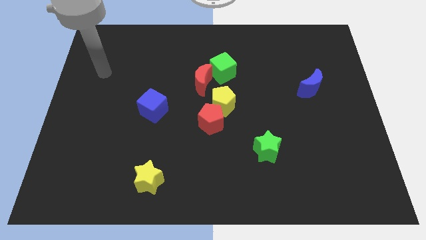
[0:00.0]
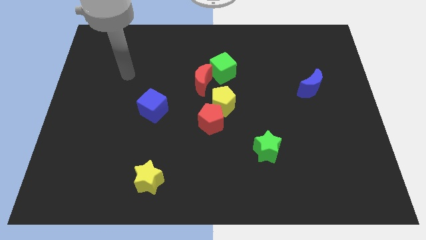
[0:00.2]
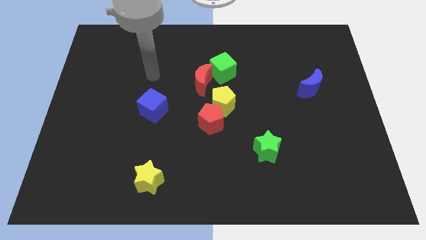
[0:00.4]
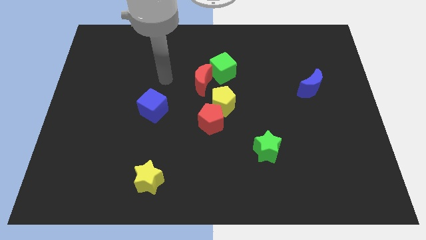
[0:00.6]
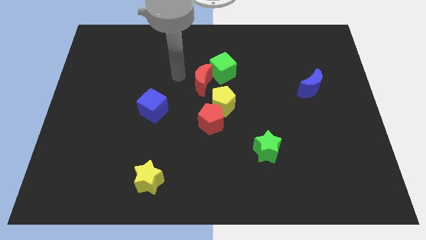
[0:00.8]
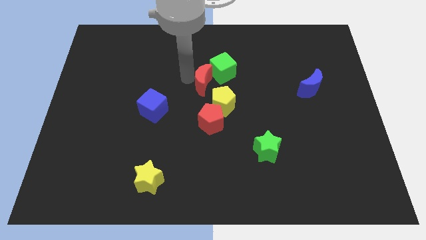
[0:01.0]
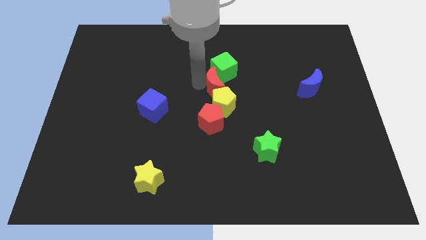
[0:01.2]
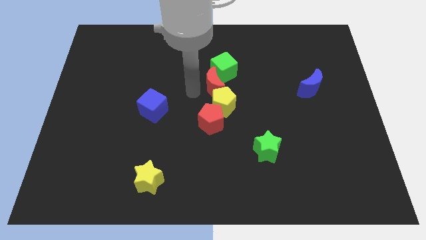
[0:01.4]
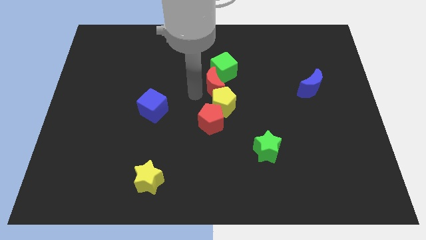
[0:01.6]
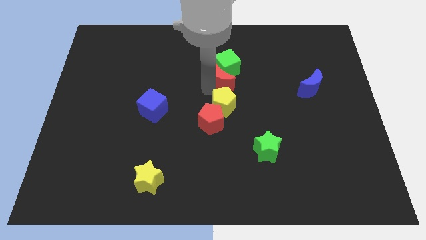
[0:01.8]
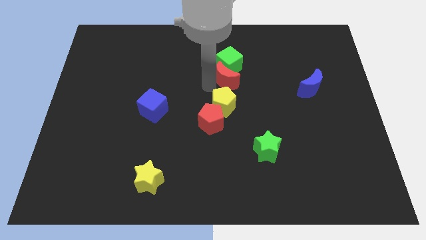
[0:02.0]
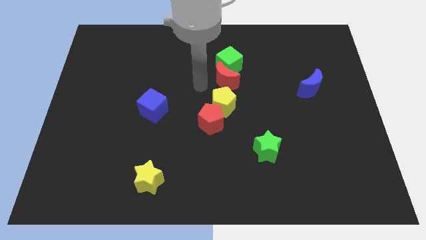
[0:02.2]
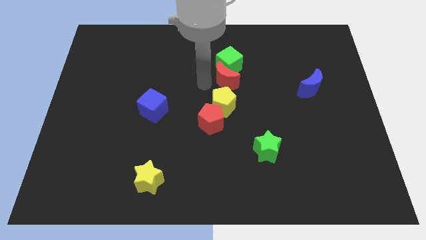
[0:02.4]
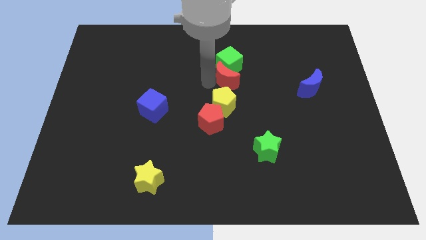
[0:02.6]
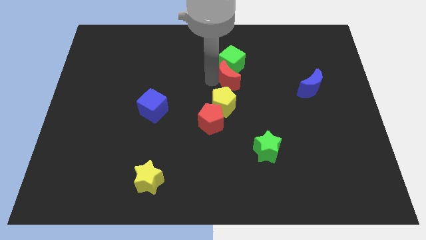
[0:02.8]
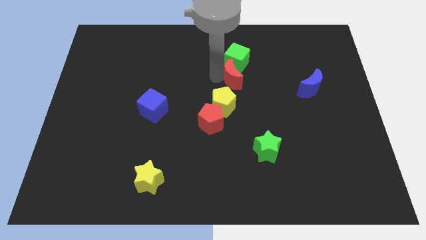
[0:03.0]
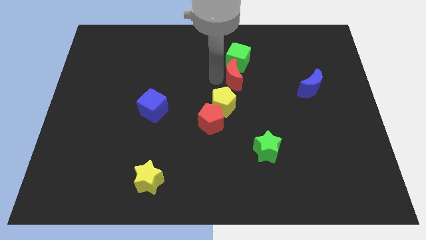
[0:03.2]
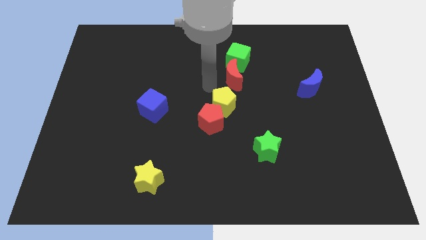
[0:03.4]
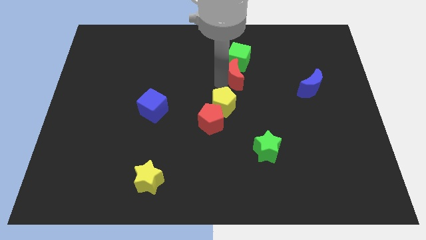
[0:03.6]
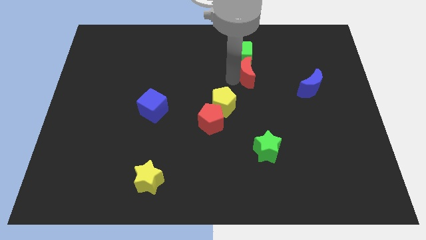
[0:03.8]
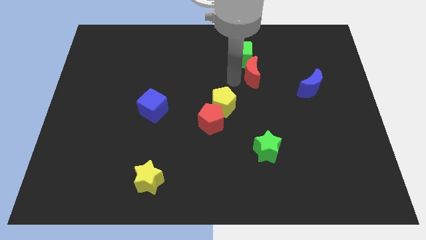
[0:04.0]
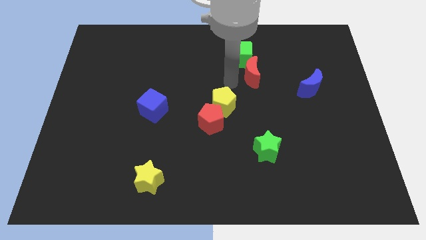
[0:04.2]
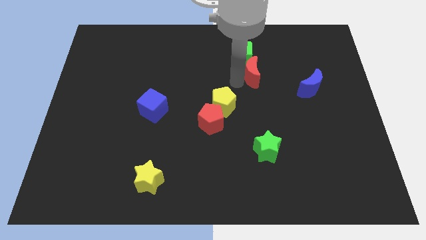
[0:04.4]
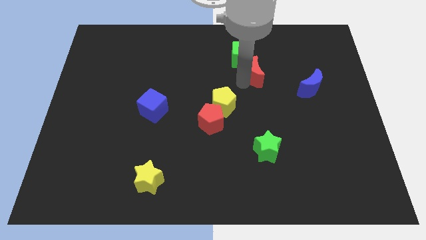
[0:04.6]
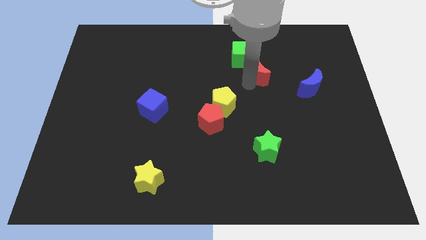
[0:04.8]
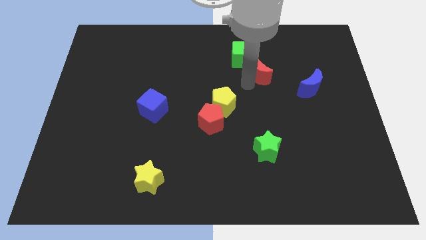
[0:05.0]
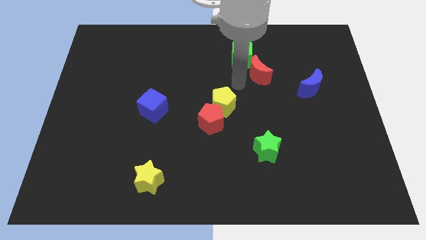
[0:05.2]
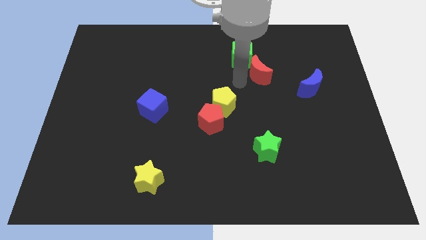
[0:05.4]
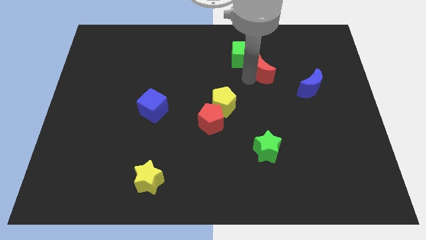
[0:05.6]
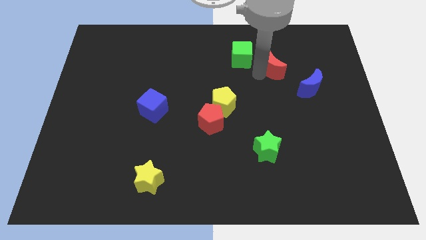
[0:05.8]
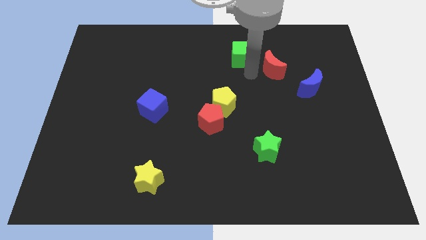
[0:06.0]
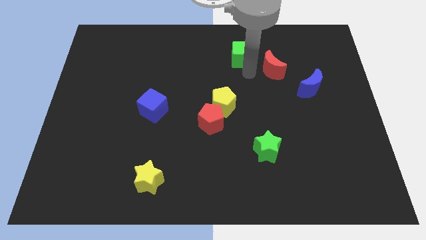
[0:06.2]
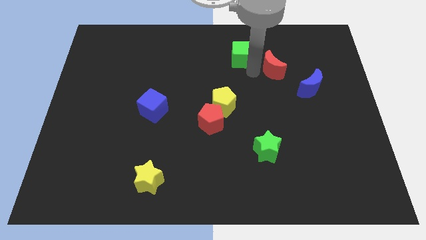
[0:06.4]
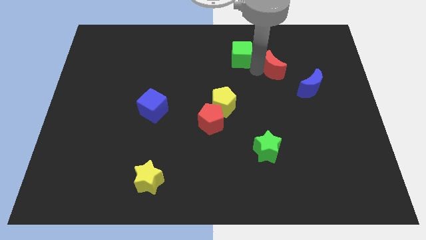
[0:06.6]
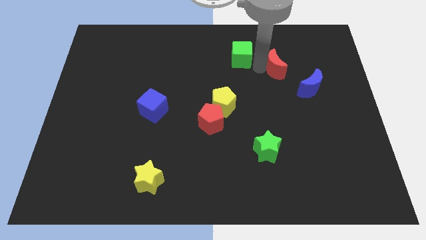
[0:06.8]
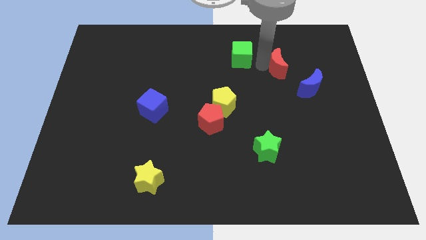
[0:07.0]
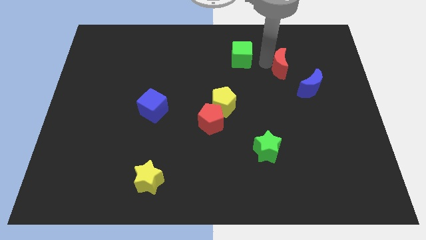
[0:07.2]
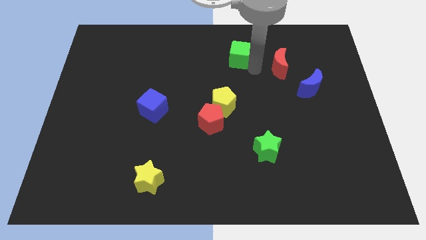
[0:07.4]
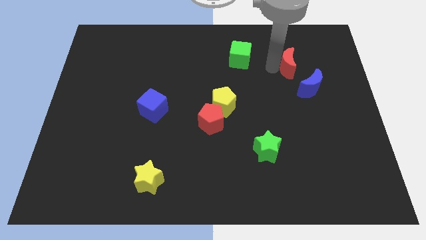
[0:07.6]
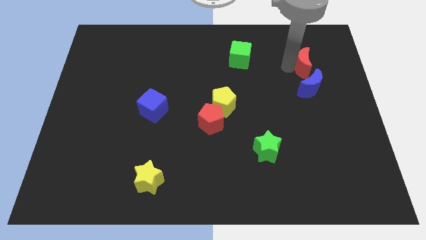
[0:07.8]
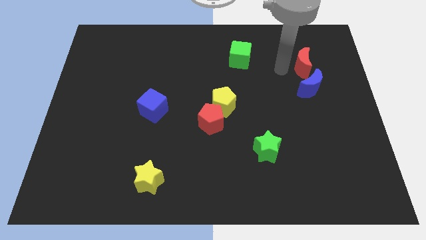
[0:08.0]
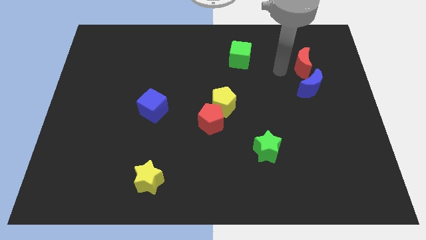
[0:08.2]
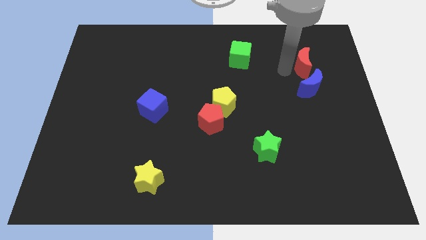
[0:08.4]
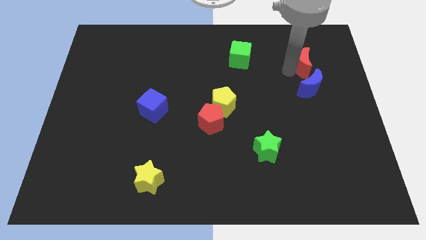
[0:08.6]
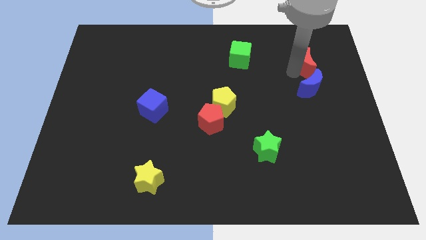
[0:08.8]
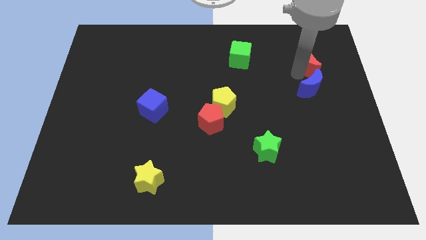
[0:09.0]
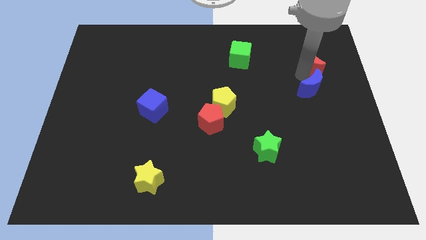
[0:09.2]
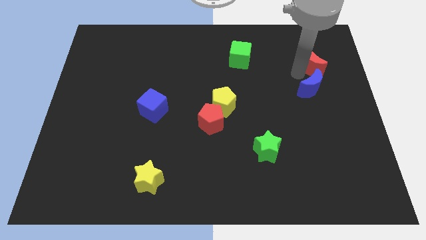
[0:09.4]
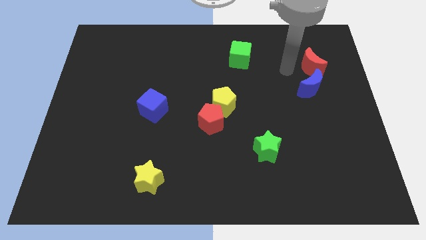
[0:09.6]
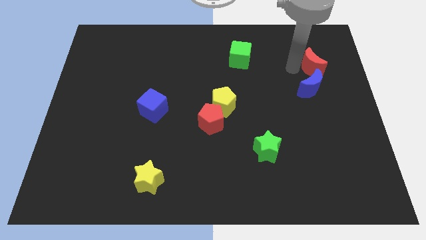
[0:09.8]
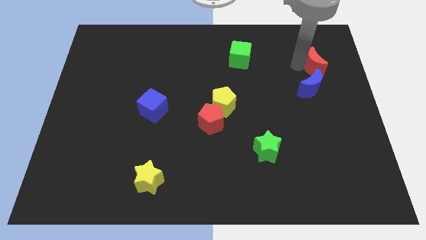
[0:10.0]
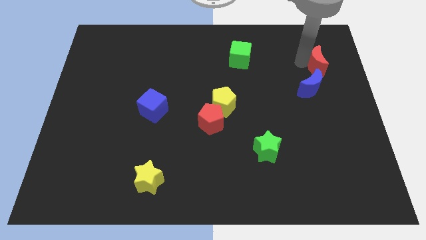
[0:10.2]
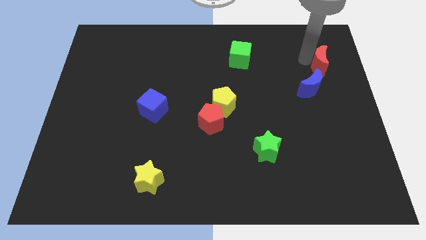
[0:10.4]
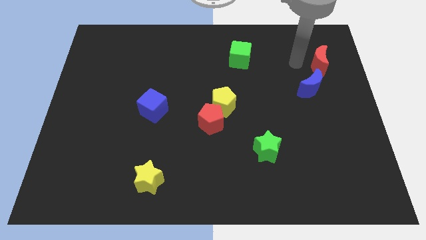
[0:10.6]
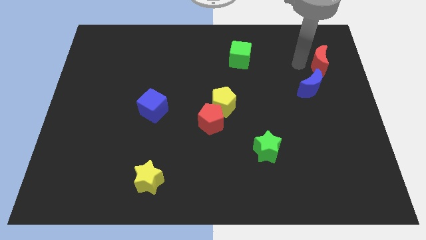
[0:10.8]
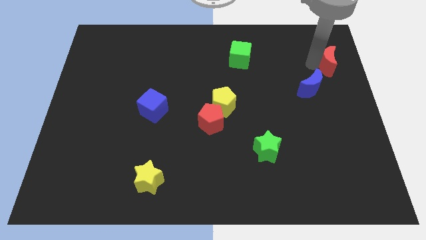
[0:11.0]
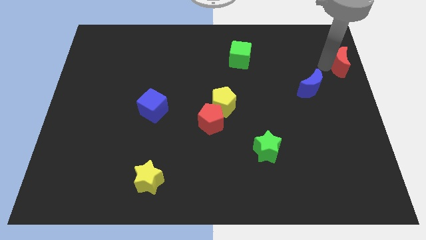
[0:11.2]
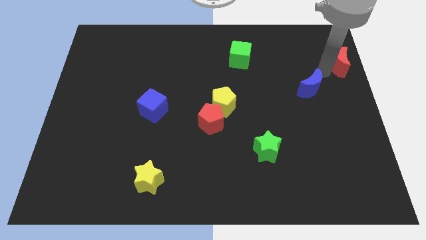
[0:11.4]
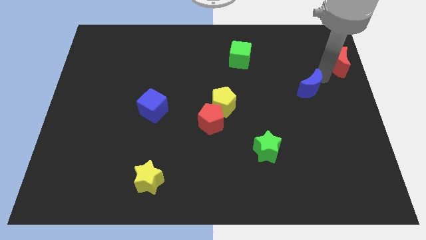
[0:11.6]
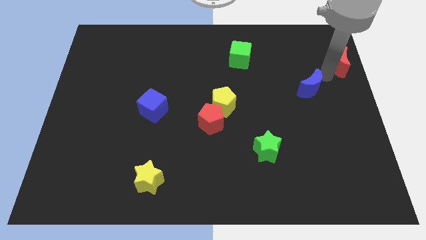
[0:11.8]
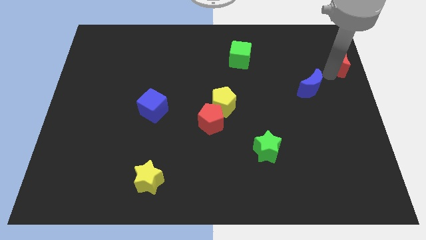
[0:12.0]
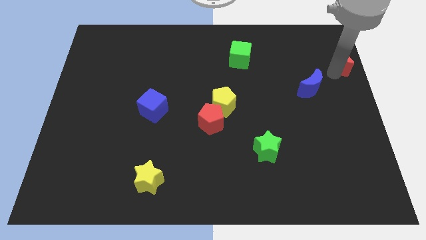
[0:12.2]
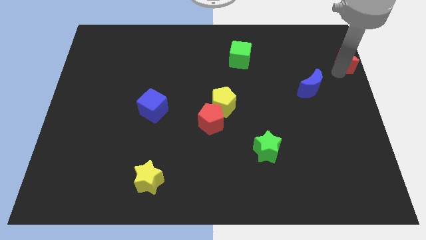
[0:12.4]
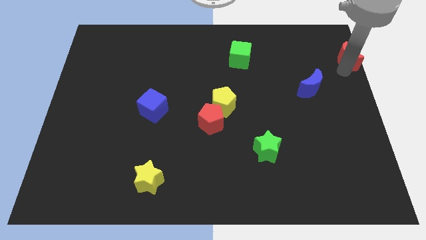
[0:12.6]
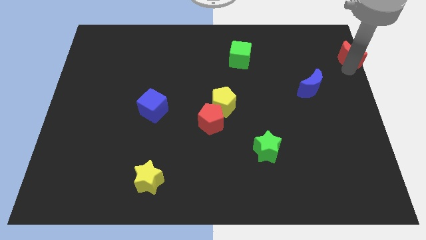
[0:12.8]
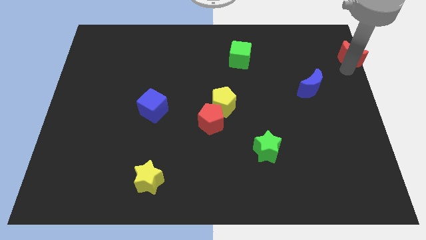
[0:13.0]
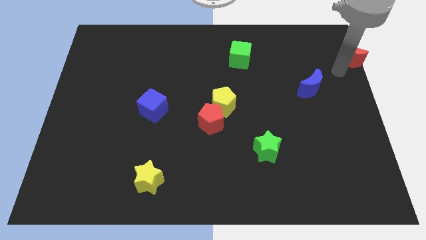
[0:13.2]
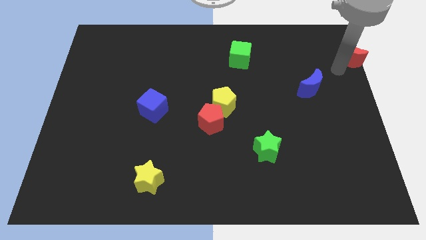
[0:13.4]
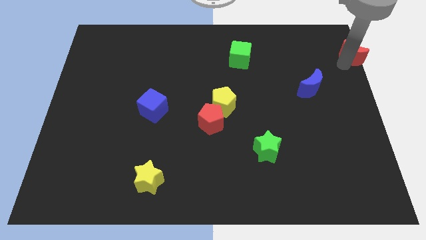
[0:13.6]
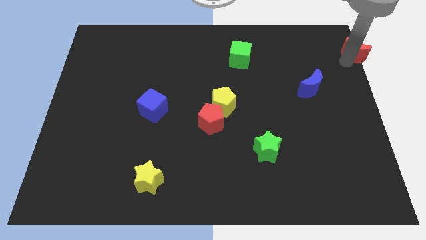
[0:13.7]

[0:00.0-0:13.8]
slide the red moon to the top right corner
